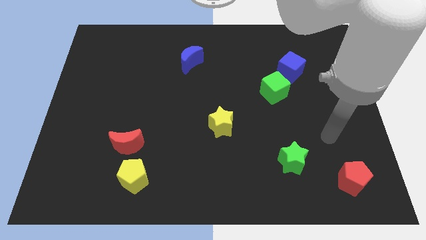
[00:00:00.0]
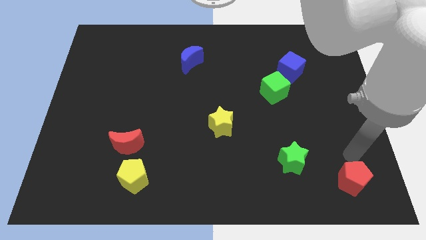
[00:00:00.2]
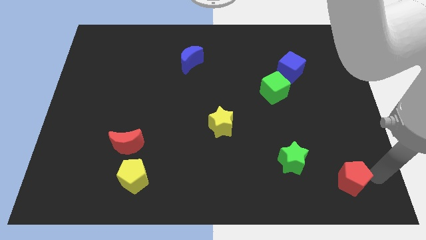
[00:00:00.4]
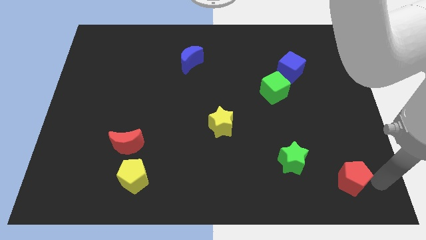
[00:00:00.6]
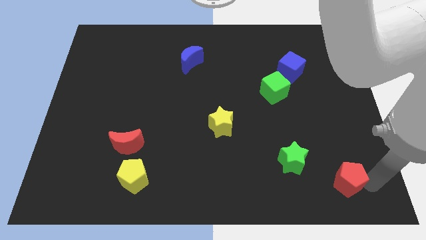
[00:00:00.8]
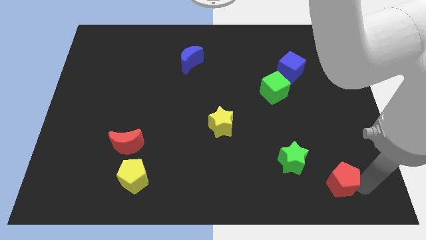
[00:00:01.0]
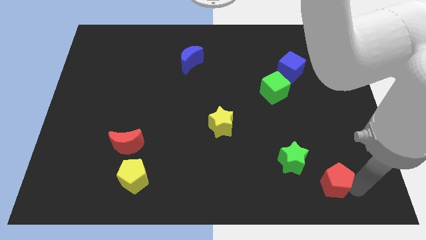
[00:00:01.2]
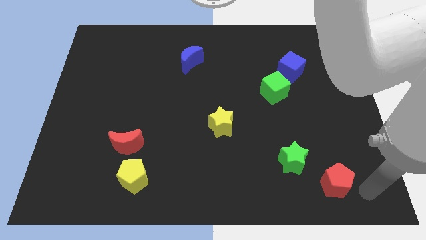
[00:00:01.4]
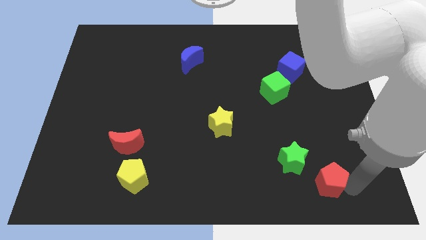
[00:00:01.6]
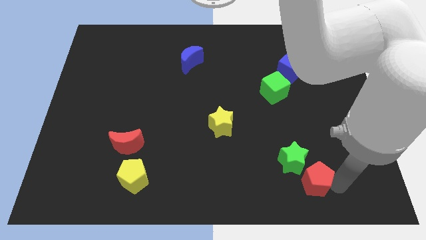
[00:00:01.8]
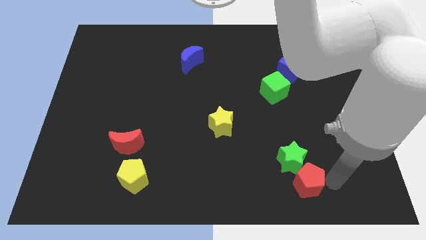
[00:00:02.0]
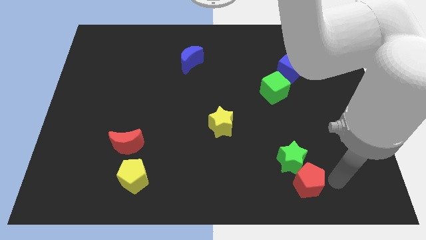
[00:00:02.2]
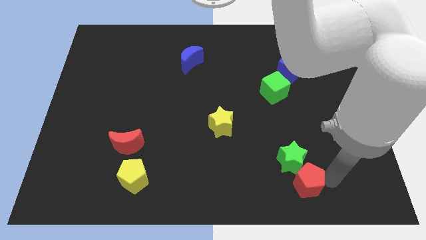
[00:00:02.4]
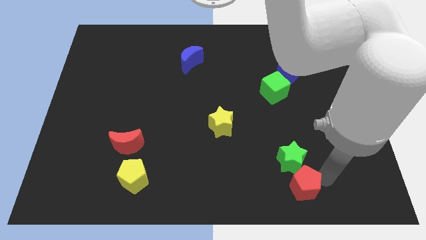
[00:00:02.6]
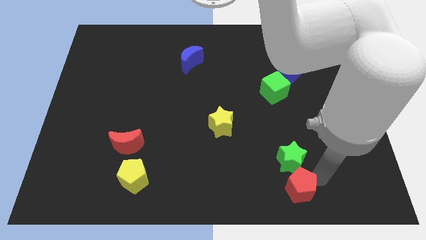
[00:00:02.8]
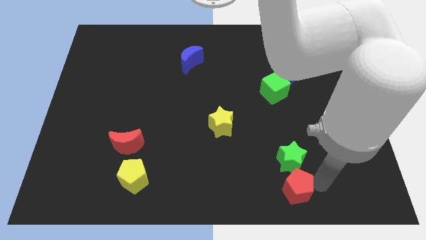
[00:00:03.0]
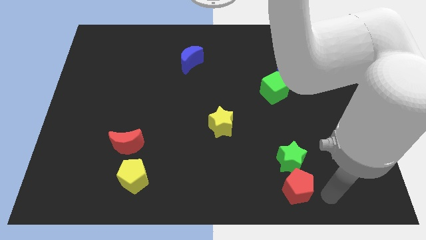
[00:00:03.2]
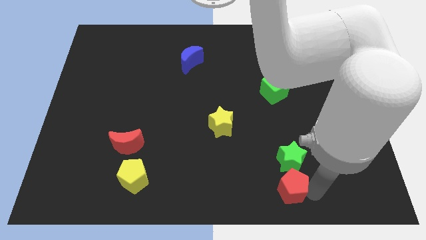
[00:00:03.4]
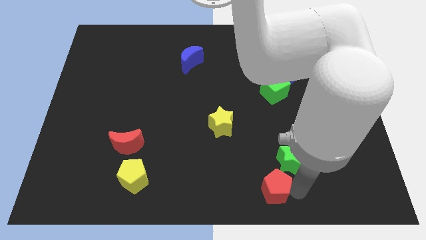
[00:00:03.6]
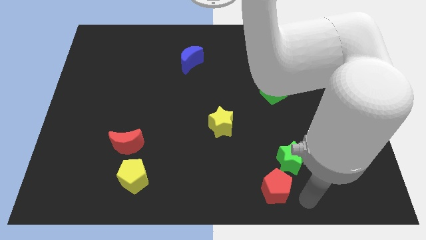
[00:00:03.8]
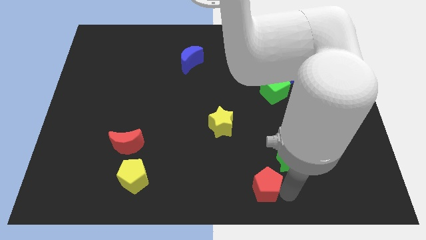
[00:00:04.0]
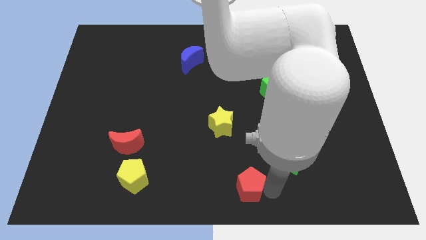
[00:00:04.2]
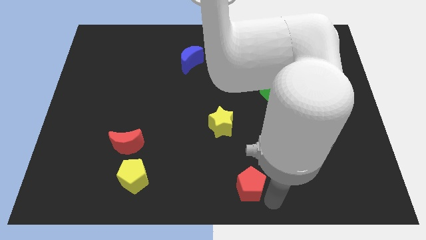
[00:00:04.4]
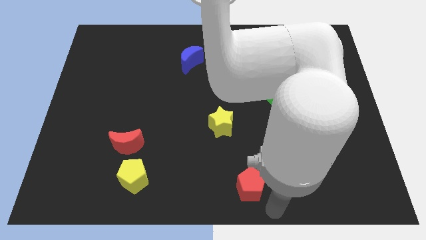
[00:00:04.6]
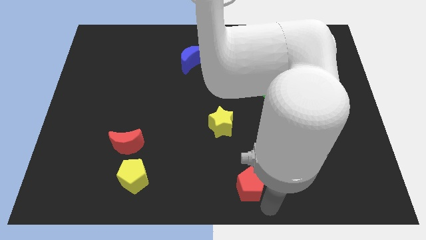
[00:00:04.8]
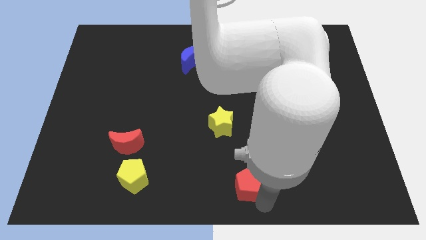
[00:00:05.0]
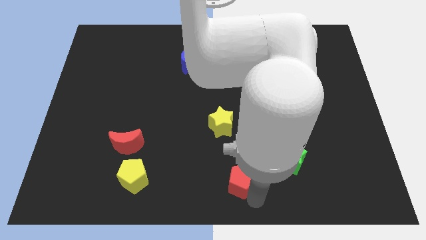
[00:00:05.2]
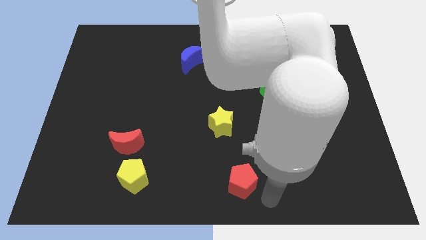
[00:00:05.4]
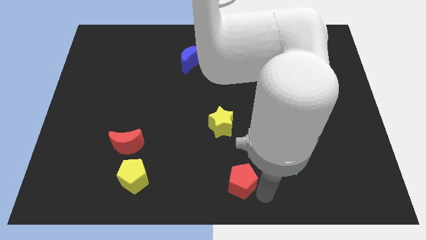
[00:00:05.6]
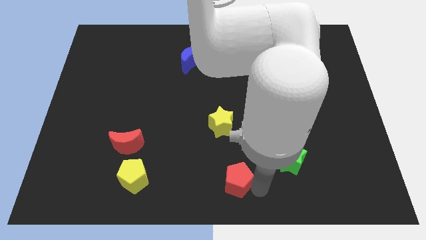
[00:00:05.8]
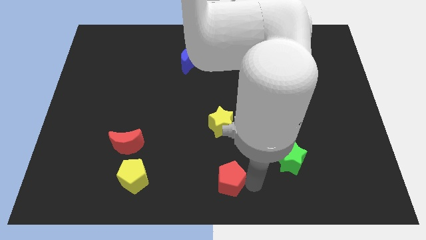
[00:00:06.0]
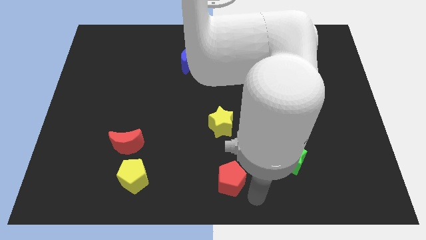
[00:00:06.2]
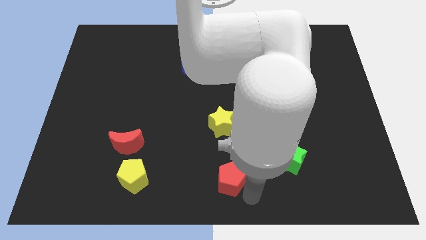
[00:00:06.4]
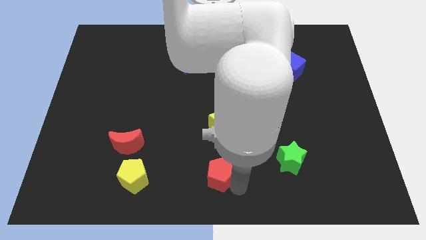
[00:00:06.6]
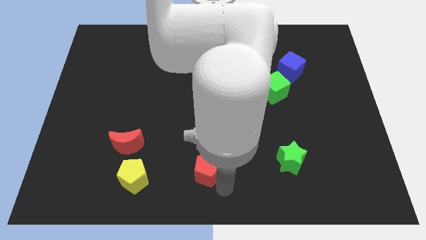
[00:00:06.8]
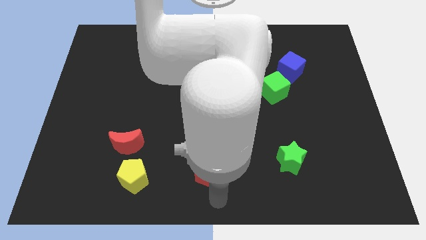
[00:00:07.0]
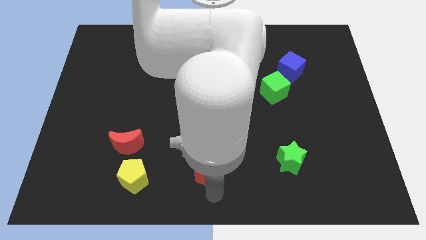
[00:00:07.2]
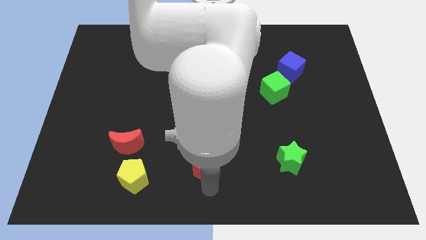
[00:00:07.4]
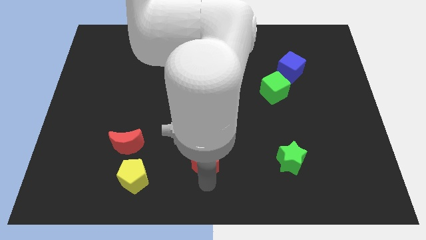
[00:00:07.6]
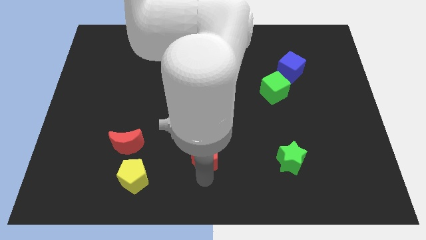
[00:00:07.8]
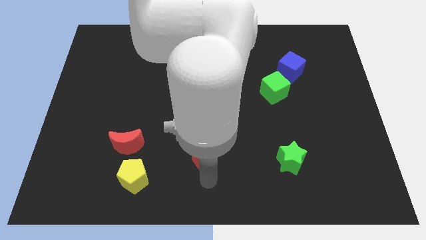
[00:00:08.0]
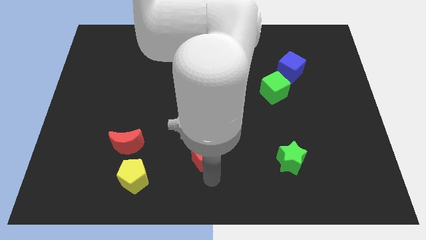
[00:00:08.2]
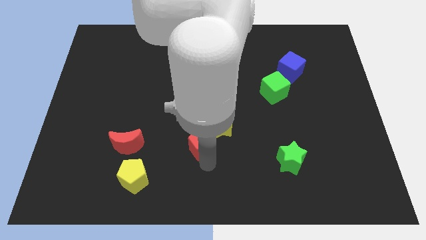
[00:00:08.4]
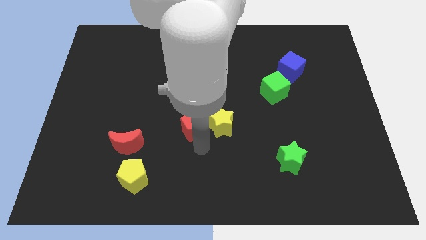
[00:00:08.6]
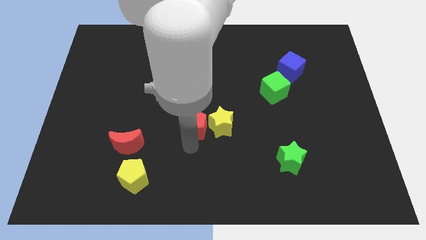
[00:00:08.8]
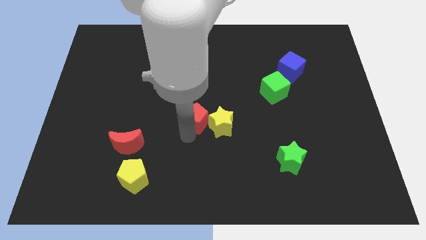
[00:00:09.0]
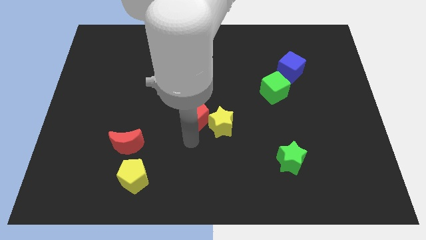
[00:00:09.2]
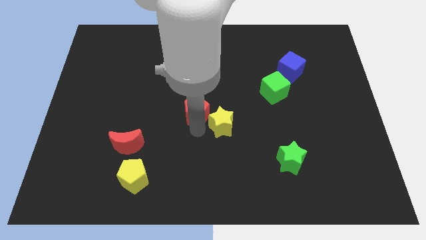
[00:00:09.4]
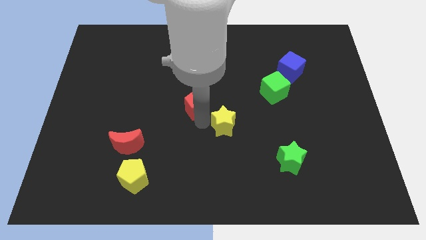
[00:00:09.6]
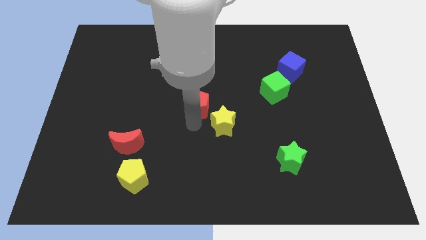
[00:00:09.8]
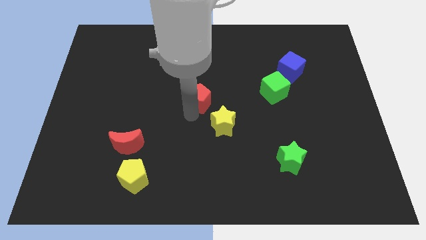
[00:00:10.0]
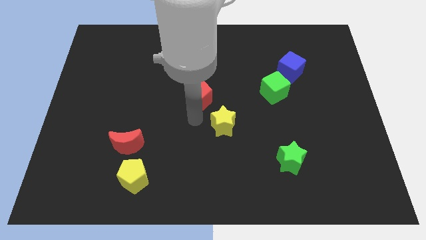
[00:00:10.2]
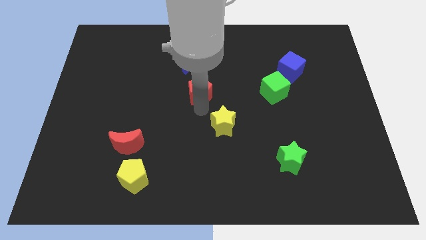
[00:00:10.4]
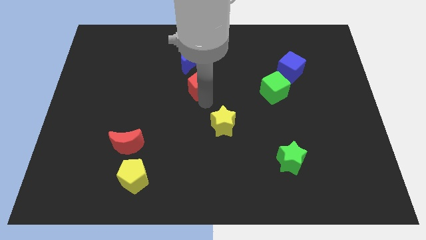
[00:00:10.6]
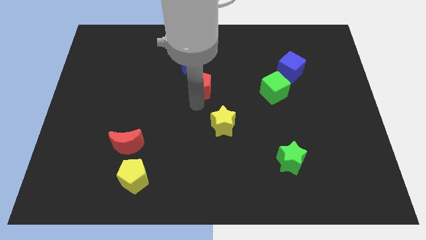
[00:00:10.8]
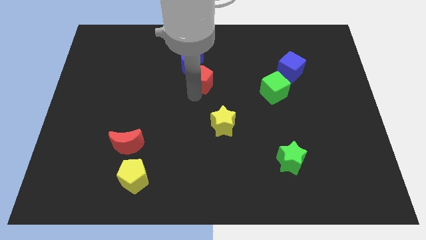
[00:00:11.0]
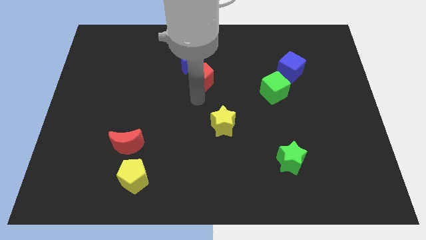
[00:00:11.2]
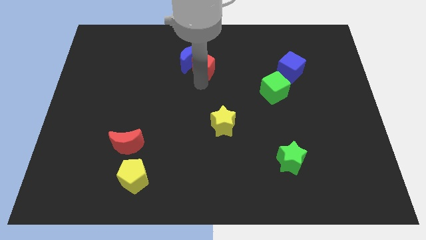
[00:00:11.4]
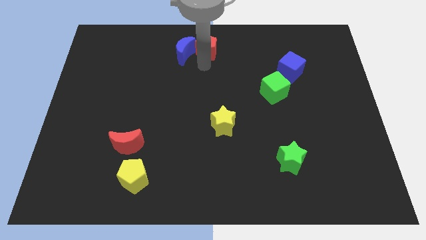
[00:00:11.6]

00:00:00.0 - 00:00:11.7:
put the red pentagon to the top
